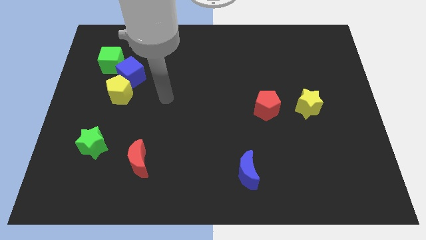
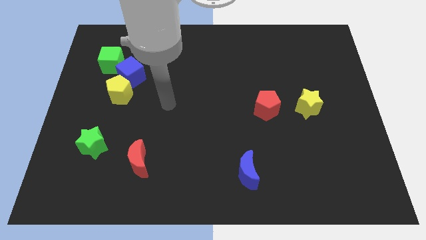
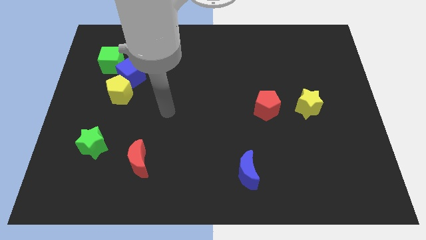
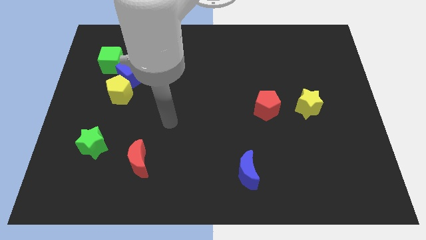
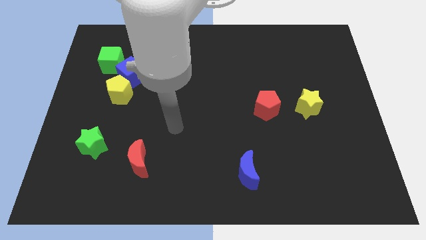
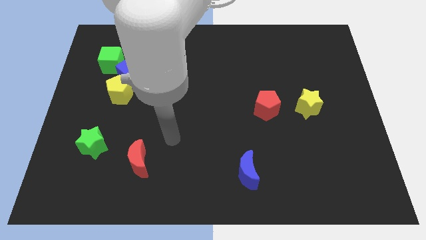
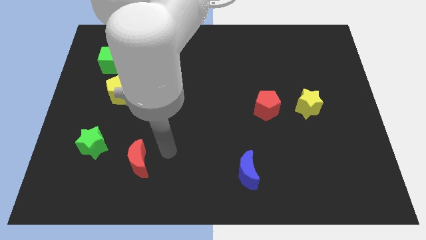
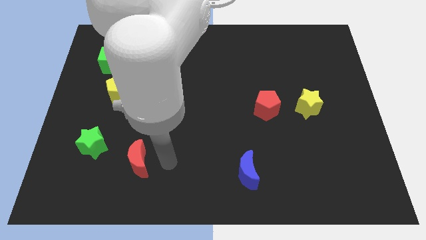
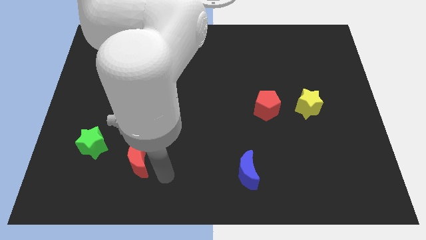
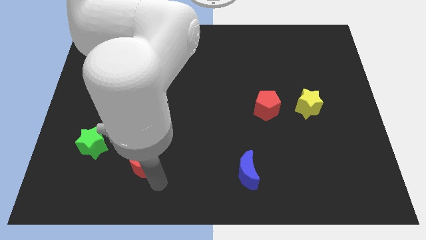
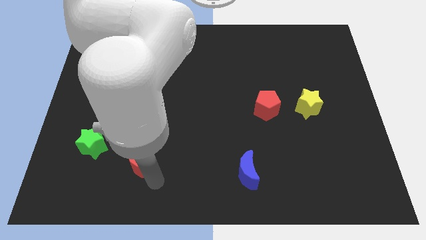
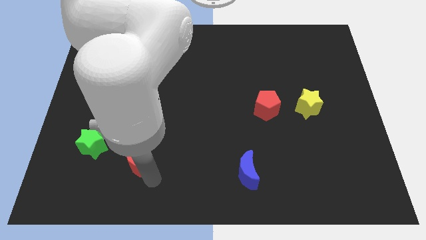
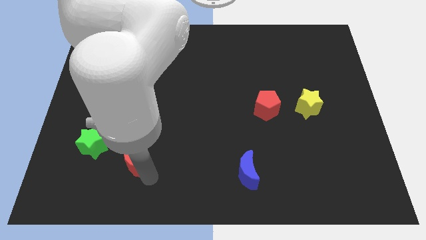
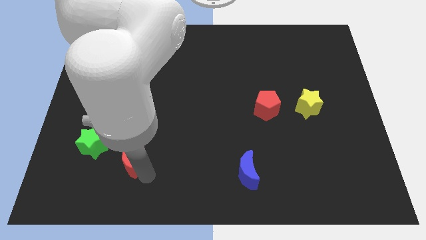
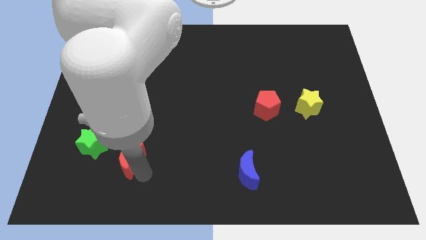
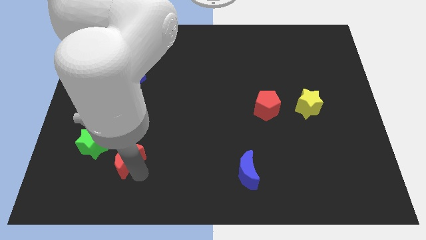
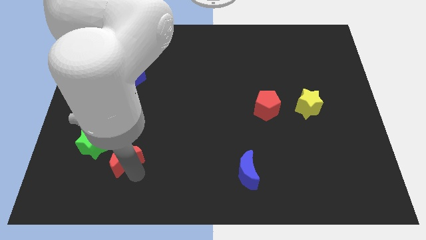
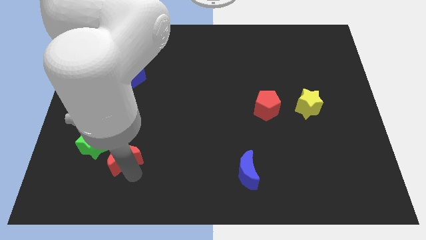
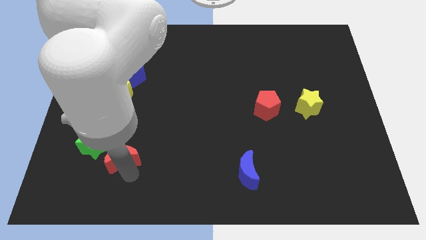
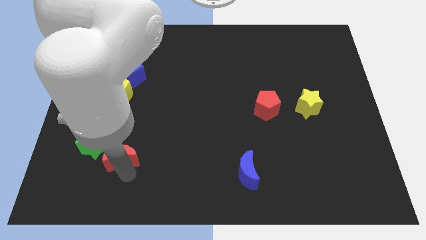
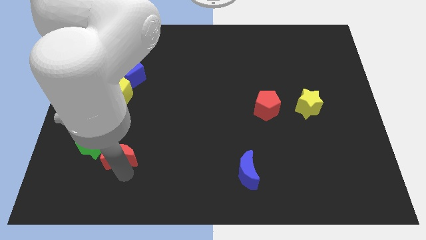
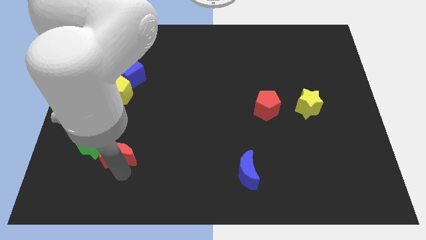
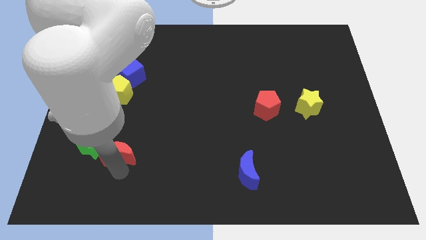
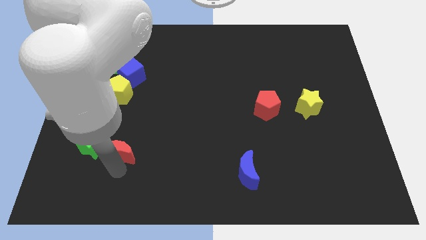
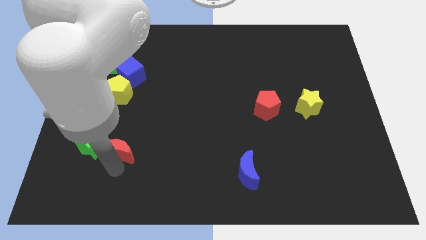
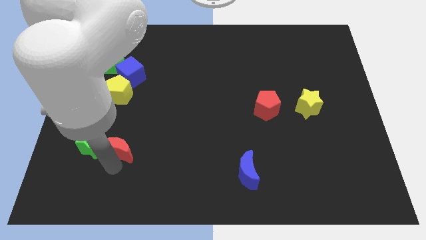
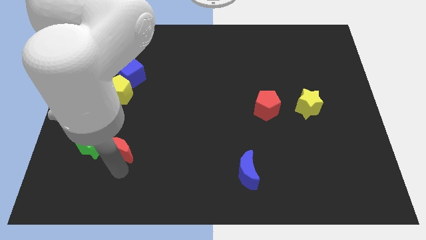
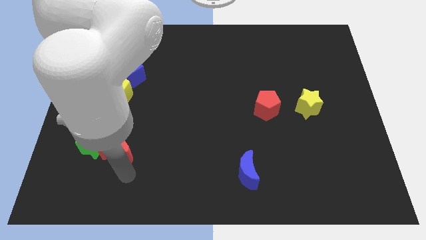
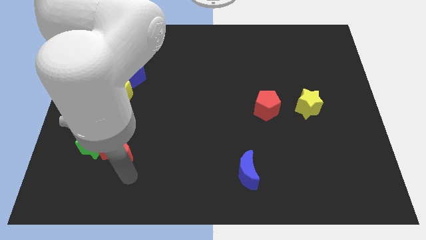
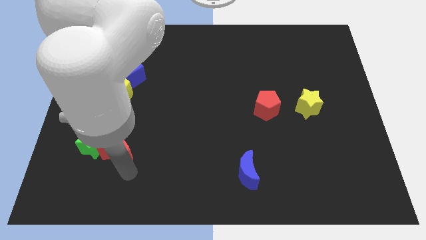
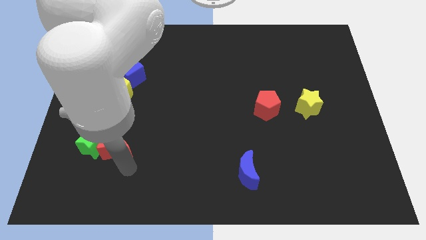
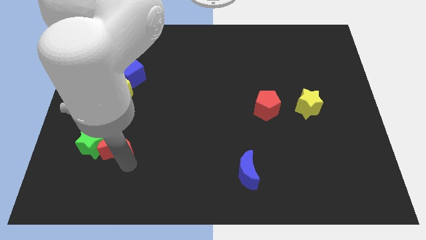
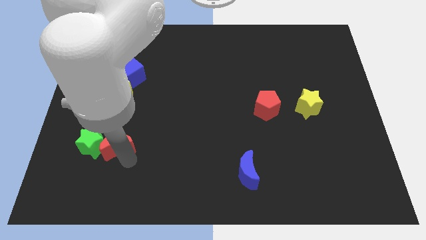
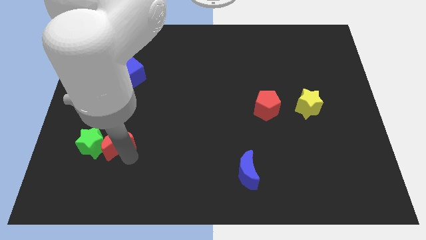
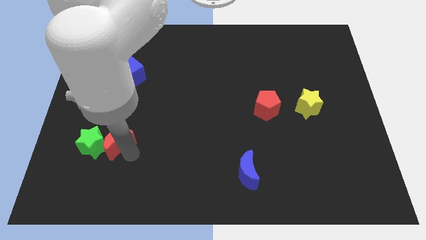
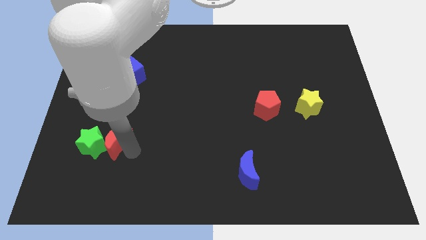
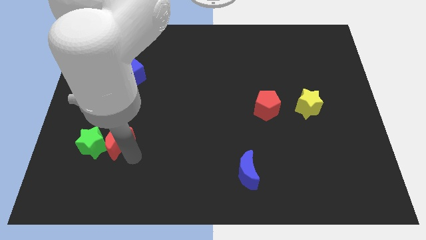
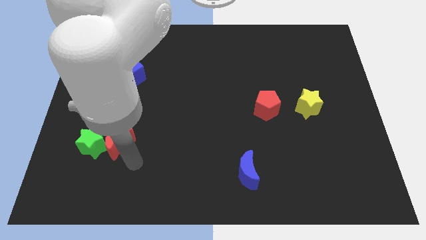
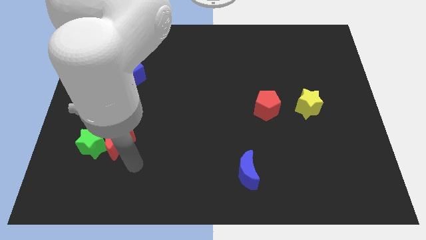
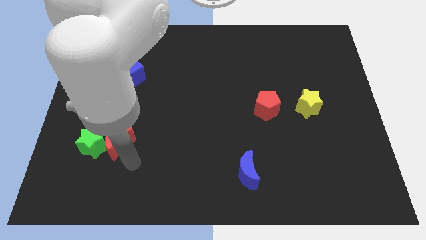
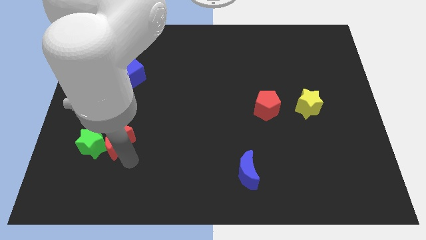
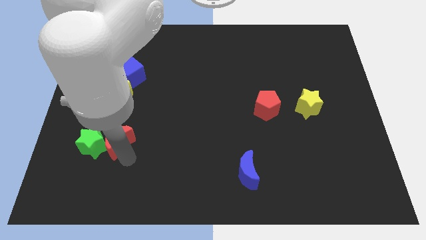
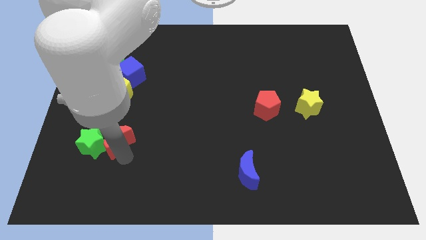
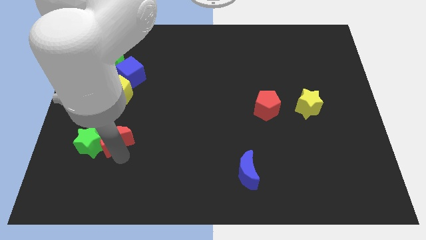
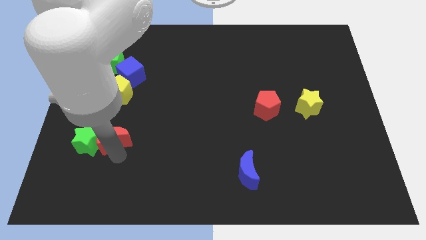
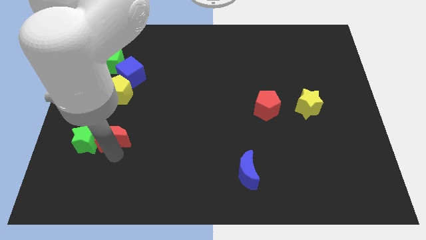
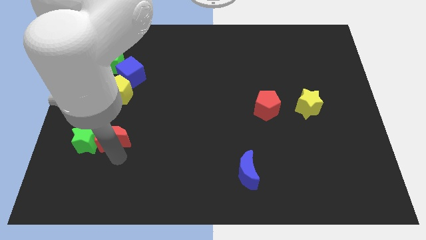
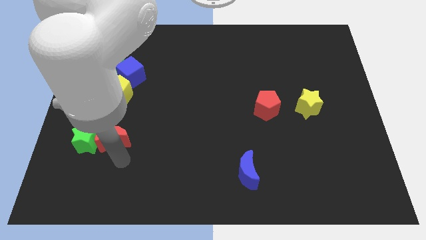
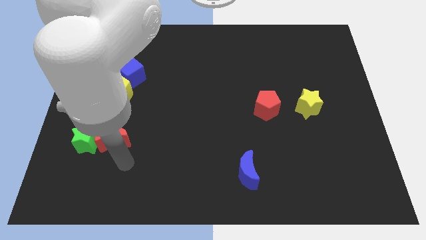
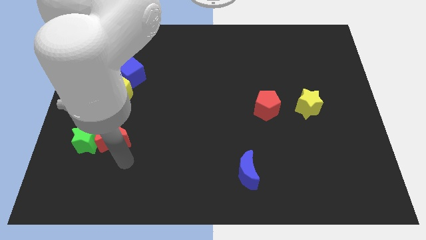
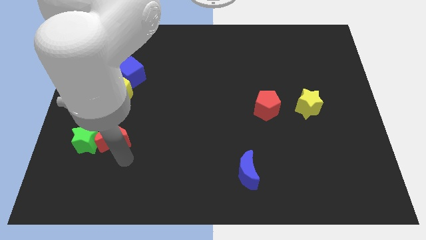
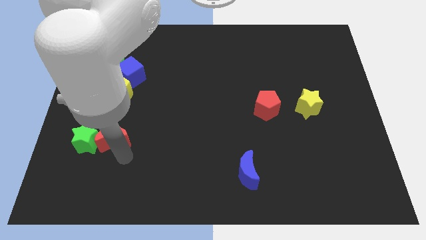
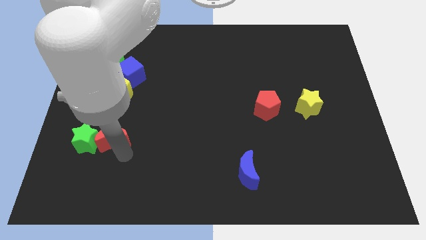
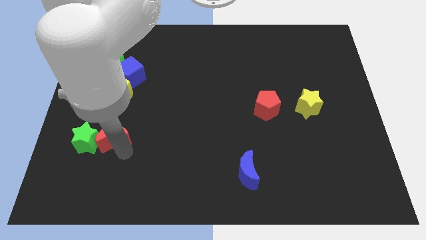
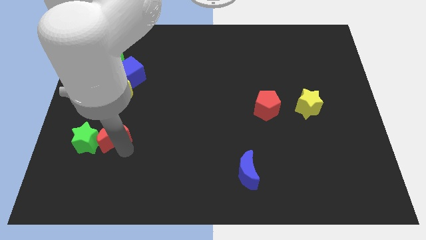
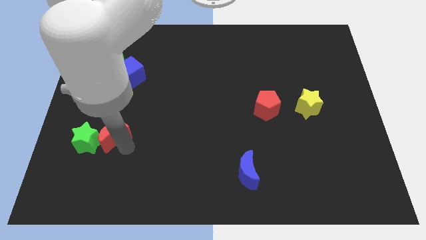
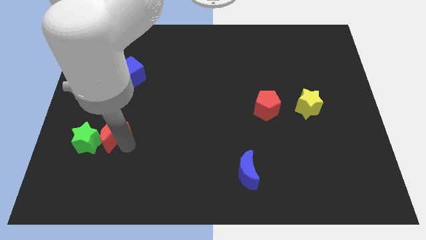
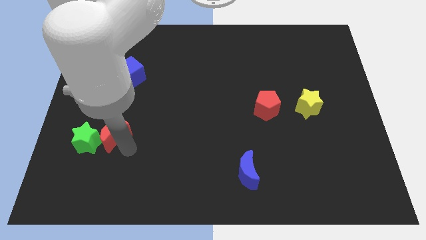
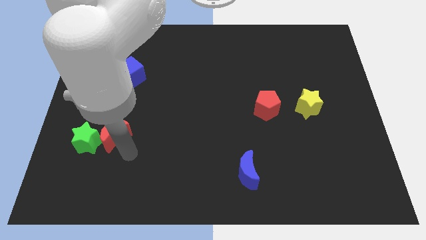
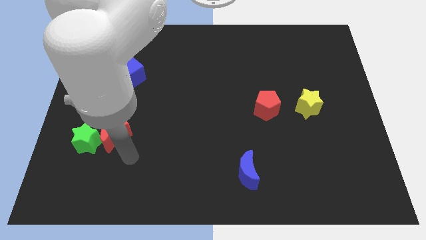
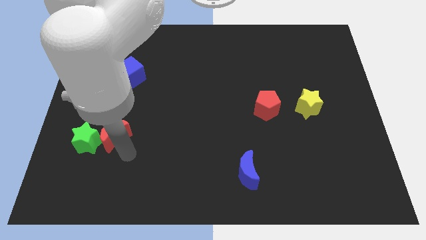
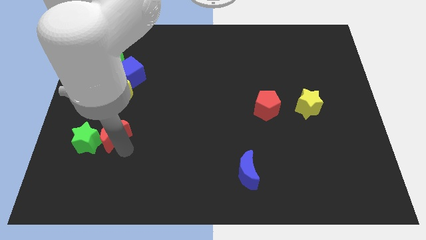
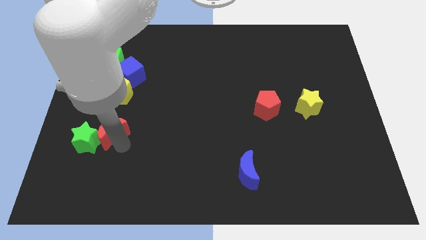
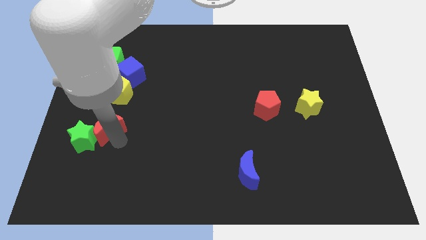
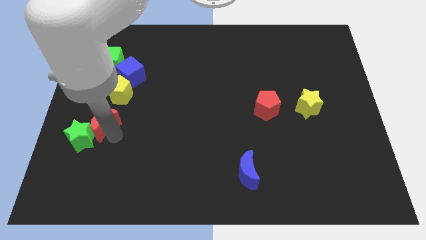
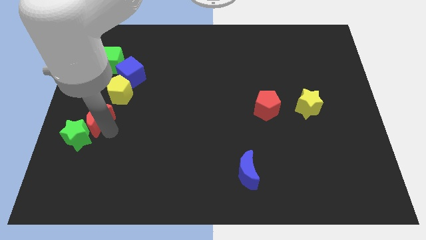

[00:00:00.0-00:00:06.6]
slide the red moon to the bottom left side of the yellow pentagon

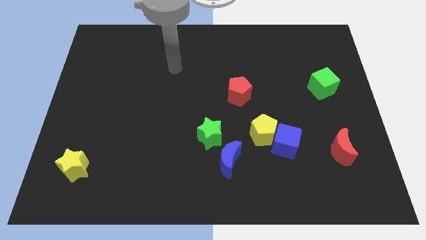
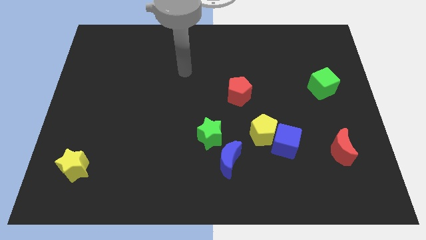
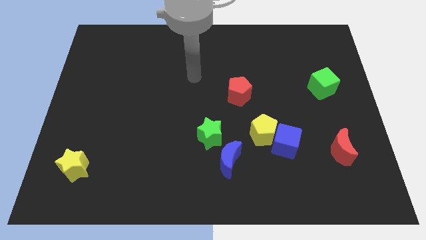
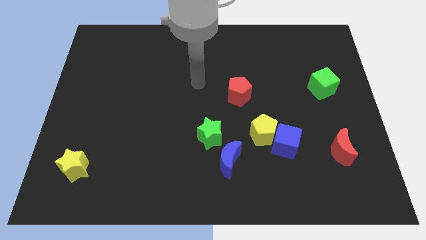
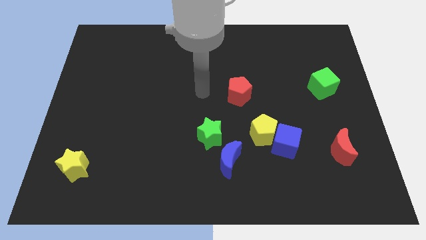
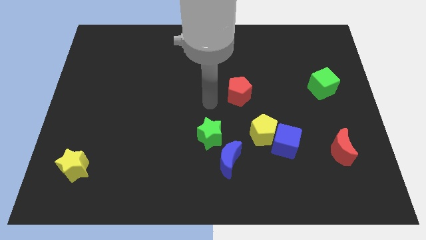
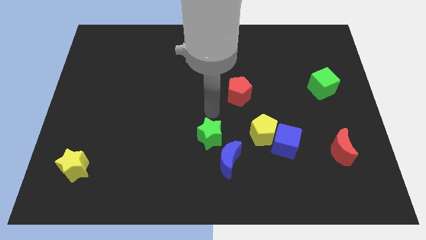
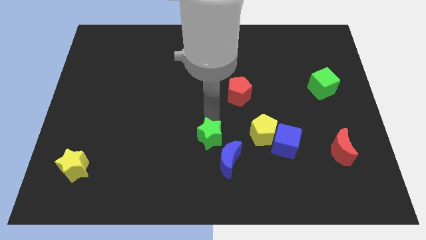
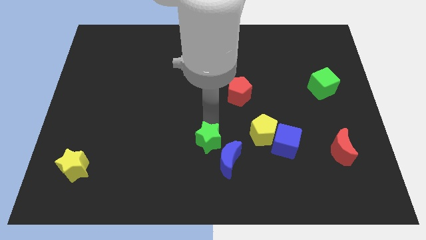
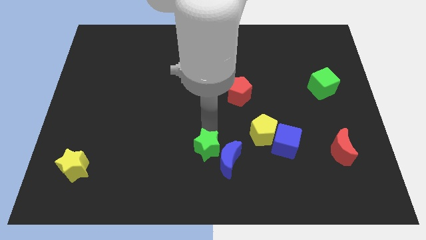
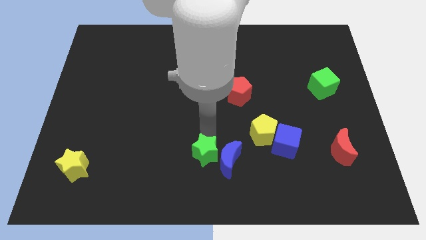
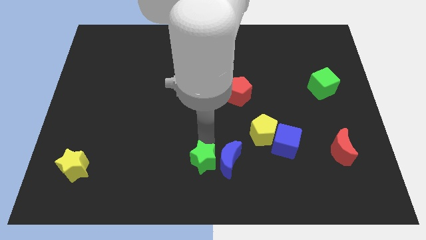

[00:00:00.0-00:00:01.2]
move the green star to the bottom left of the blue moon
